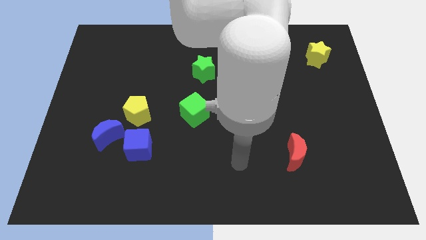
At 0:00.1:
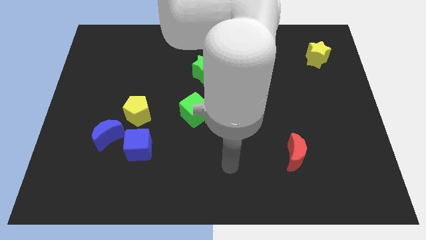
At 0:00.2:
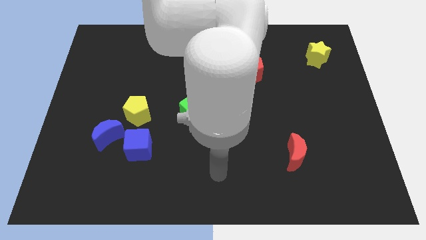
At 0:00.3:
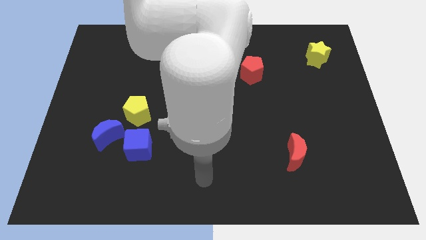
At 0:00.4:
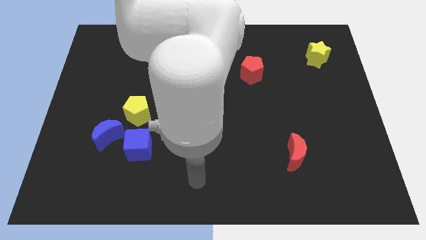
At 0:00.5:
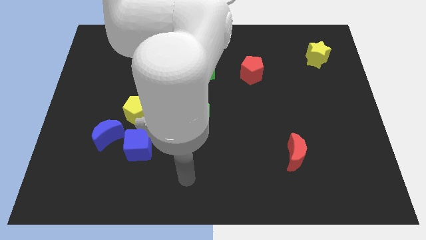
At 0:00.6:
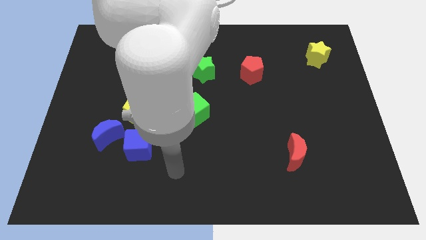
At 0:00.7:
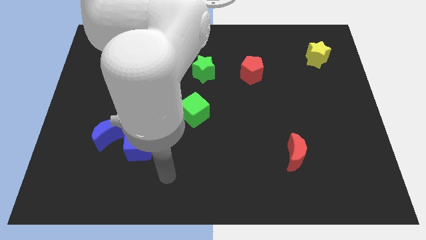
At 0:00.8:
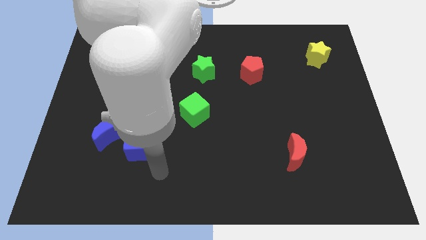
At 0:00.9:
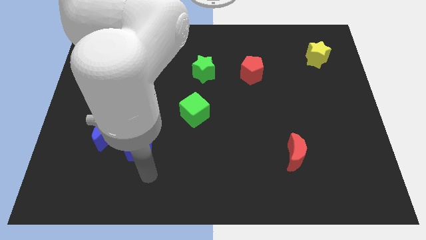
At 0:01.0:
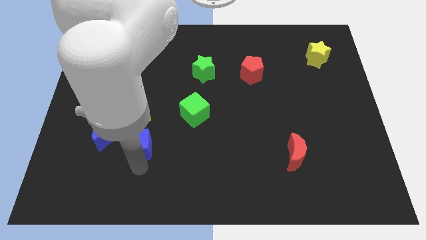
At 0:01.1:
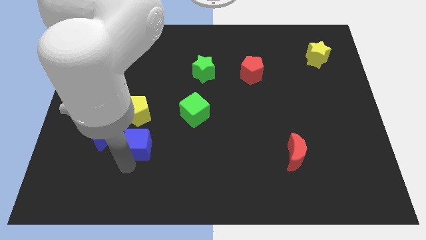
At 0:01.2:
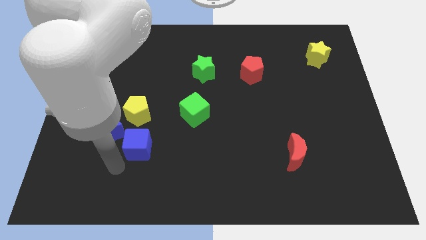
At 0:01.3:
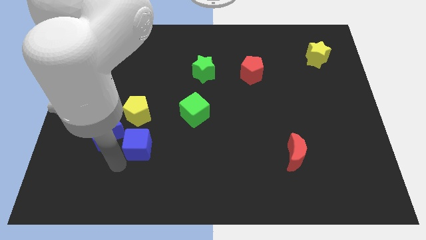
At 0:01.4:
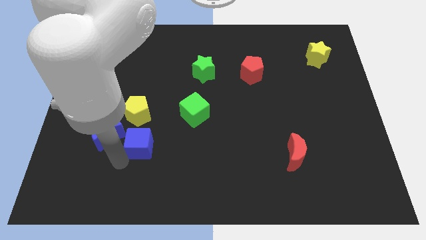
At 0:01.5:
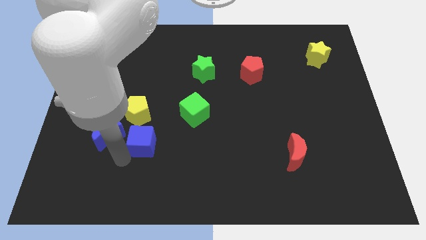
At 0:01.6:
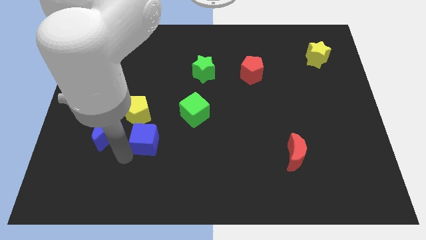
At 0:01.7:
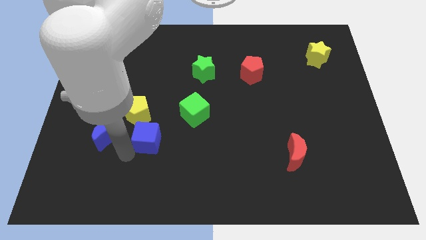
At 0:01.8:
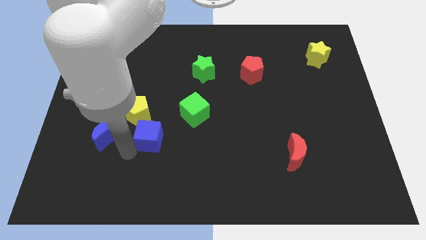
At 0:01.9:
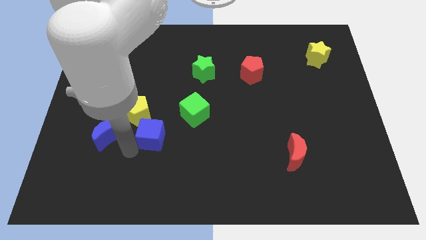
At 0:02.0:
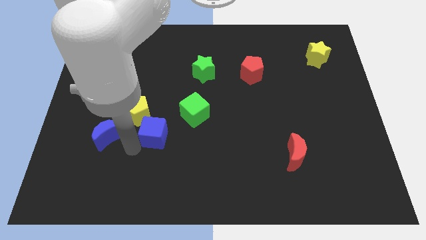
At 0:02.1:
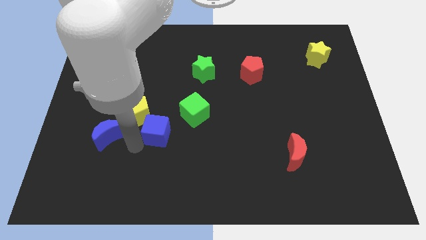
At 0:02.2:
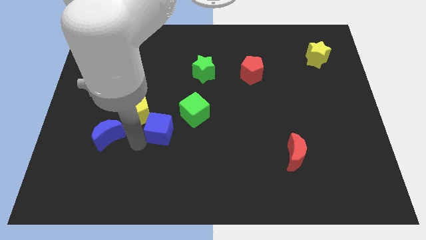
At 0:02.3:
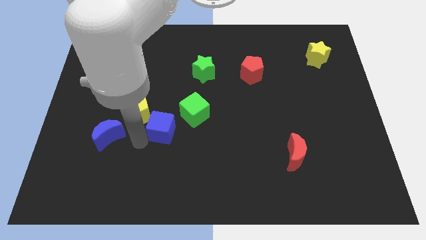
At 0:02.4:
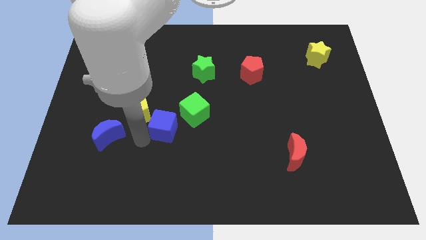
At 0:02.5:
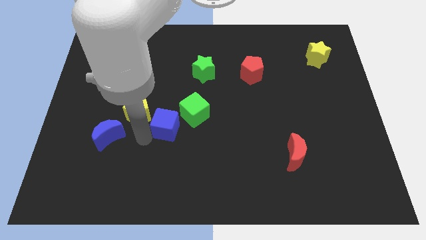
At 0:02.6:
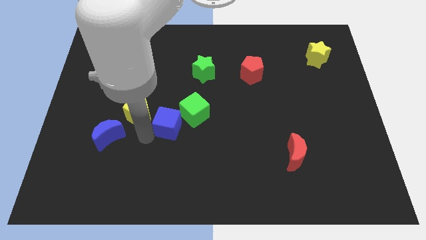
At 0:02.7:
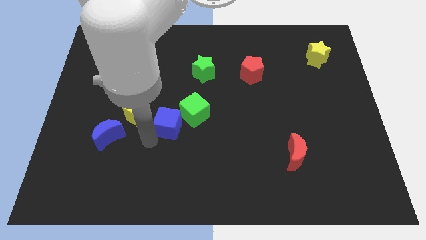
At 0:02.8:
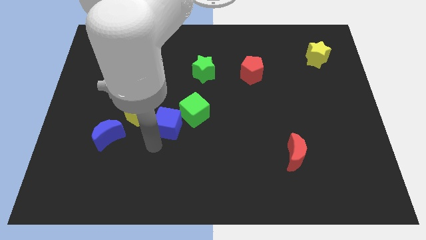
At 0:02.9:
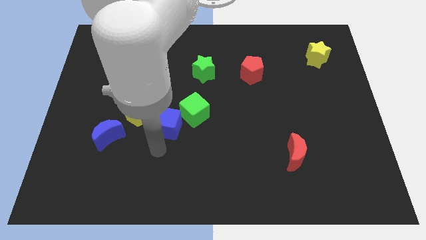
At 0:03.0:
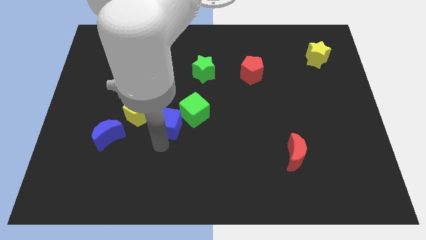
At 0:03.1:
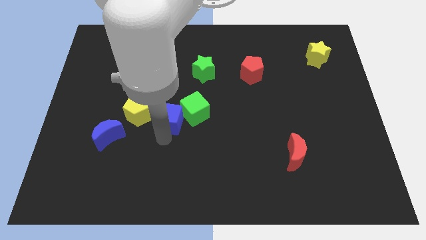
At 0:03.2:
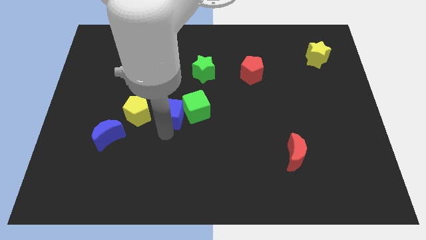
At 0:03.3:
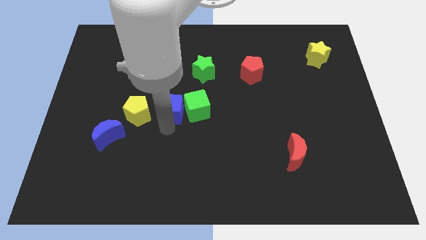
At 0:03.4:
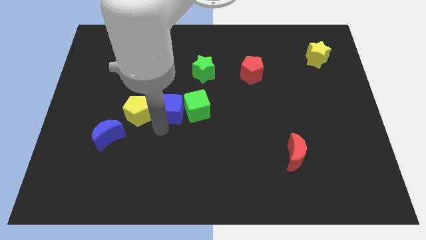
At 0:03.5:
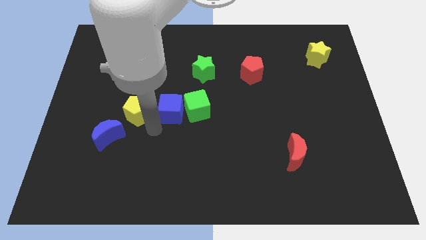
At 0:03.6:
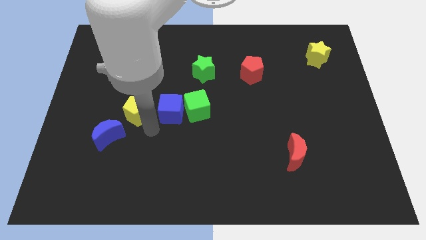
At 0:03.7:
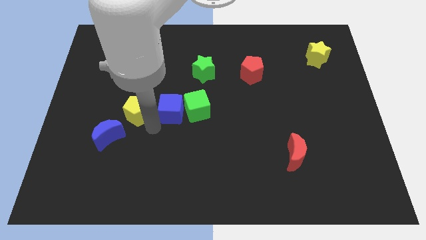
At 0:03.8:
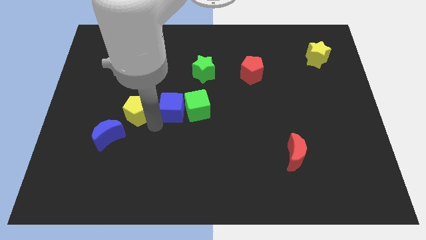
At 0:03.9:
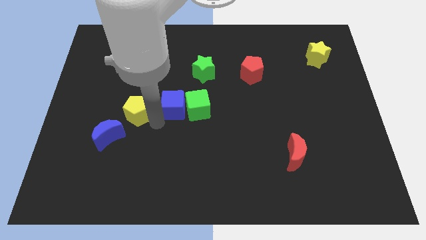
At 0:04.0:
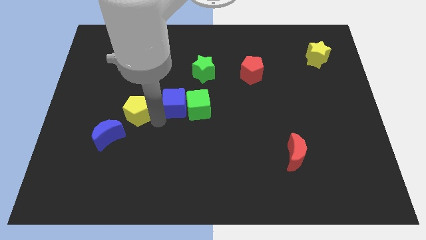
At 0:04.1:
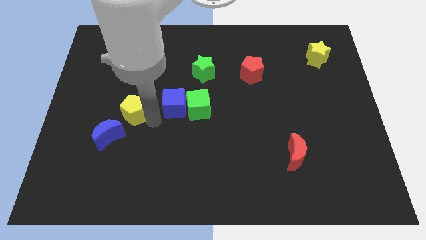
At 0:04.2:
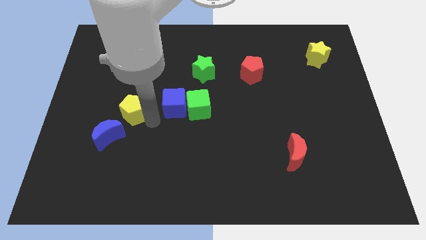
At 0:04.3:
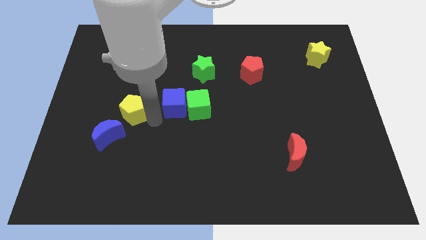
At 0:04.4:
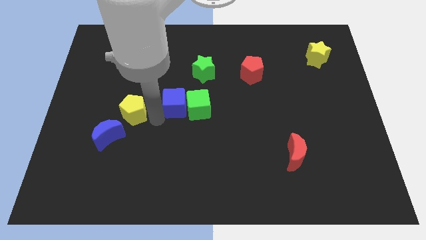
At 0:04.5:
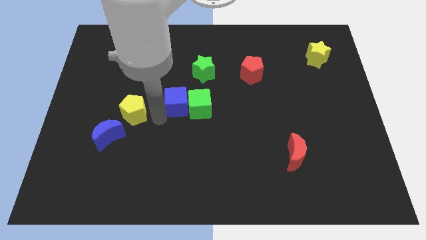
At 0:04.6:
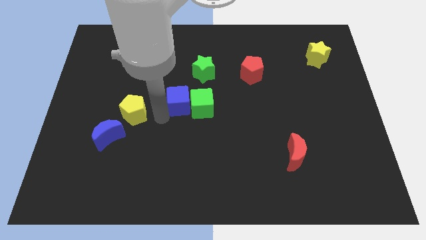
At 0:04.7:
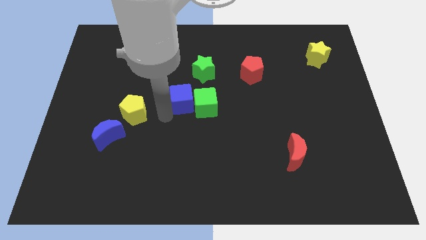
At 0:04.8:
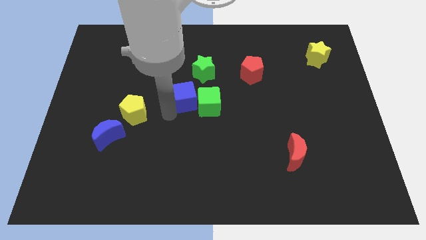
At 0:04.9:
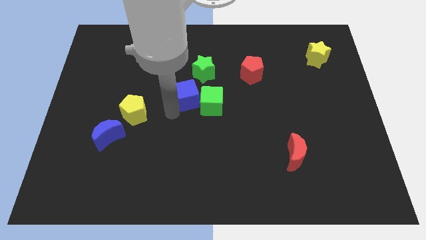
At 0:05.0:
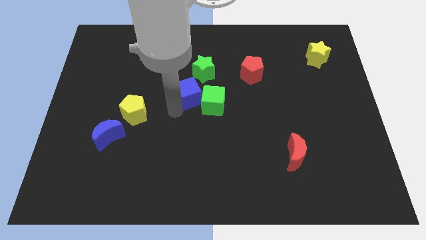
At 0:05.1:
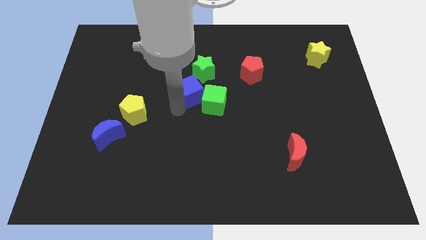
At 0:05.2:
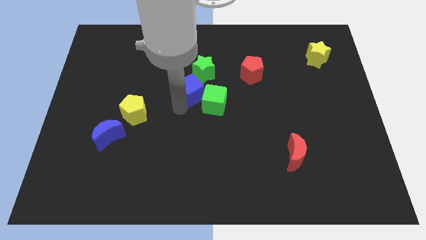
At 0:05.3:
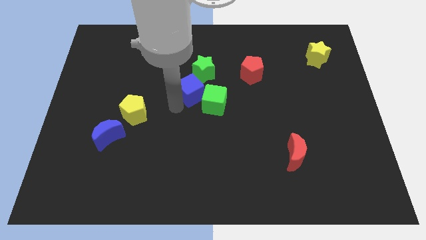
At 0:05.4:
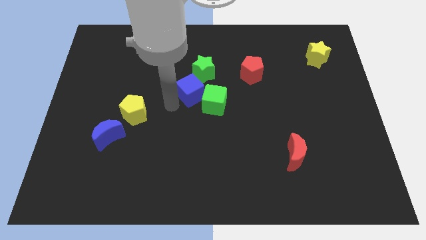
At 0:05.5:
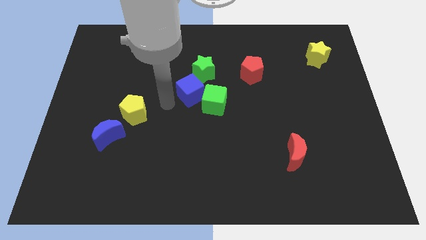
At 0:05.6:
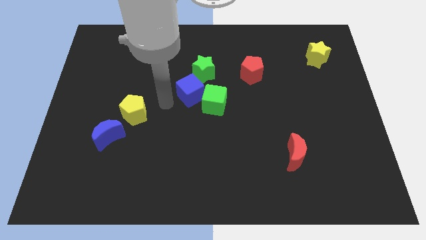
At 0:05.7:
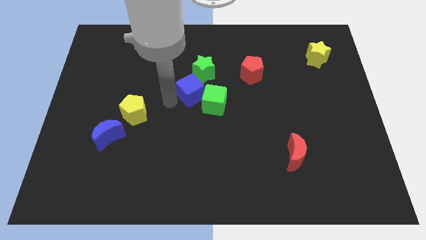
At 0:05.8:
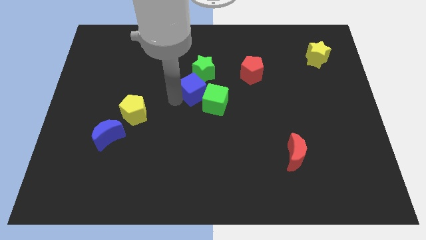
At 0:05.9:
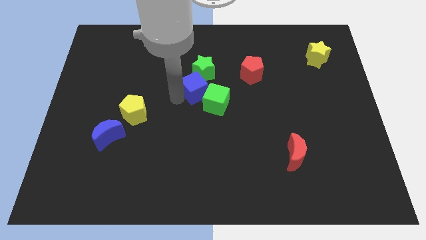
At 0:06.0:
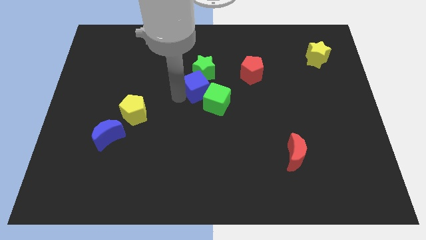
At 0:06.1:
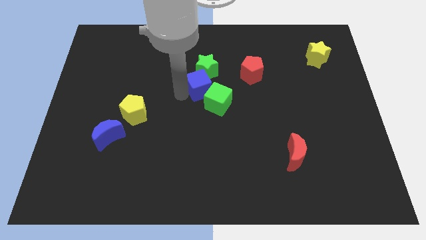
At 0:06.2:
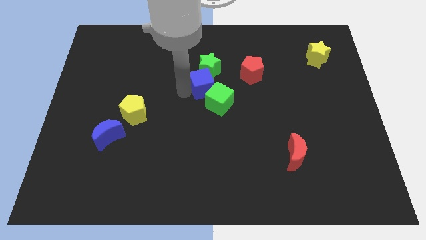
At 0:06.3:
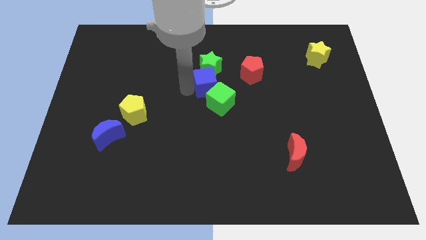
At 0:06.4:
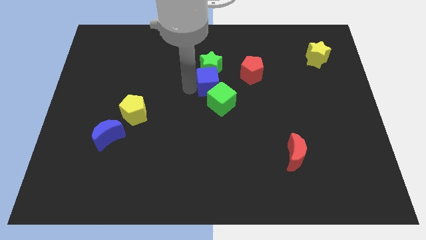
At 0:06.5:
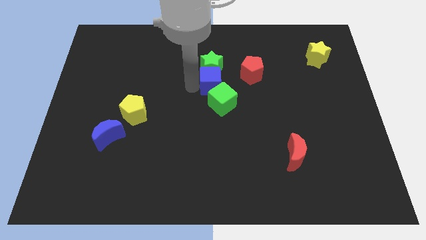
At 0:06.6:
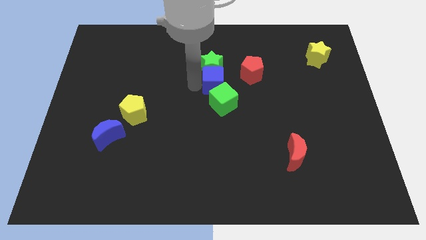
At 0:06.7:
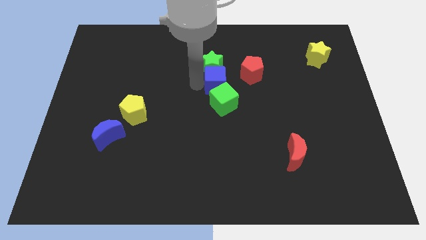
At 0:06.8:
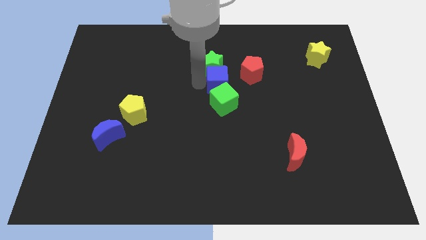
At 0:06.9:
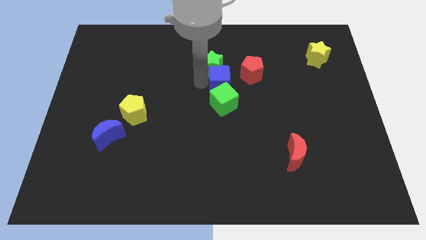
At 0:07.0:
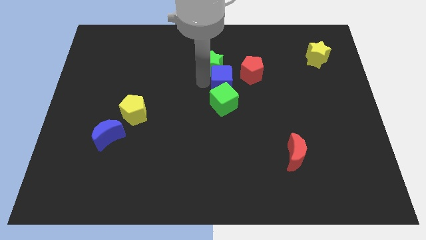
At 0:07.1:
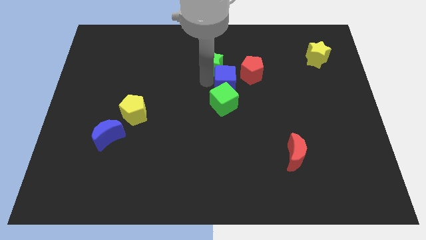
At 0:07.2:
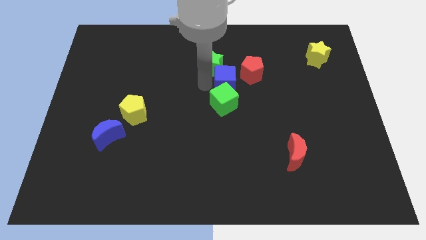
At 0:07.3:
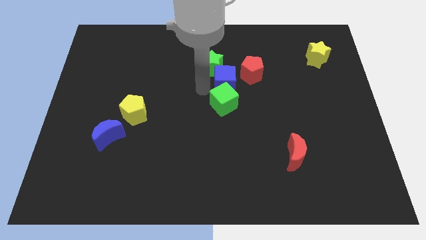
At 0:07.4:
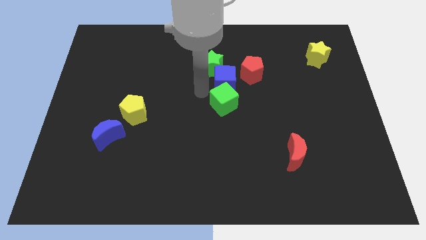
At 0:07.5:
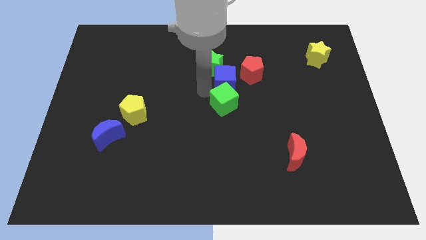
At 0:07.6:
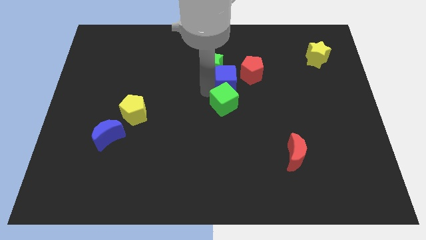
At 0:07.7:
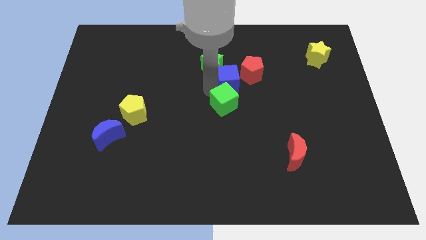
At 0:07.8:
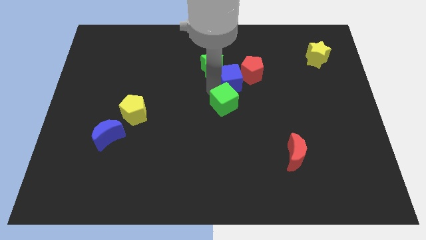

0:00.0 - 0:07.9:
push the blue cube close to the red pentagon

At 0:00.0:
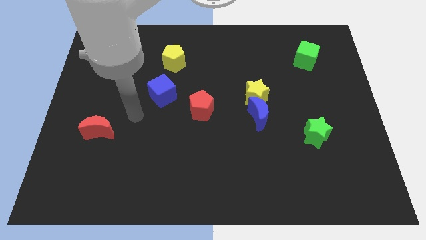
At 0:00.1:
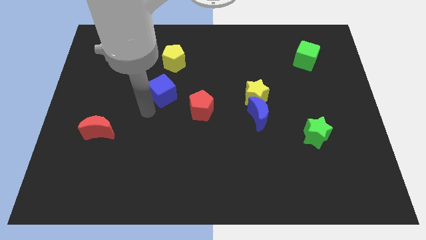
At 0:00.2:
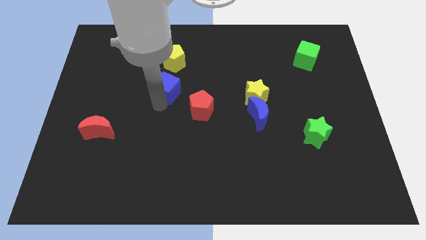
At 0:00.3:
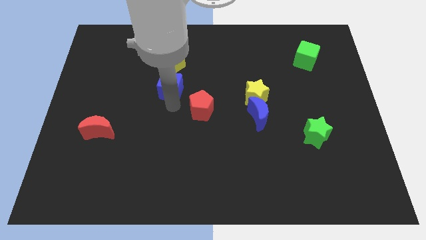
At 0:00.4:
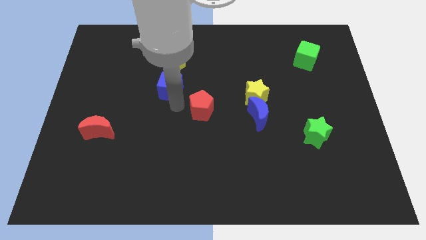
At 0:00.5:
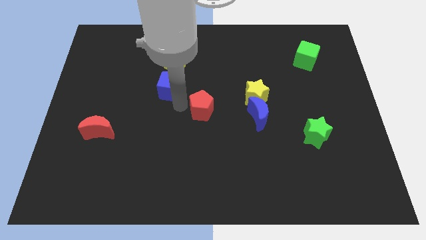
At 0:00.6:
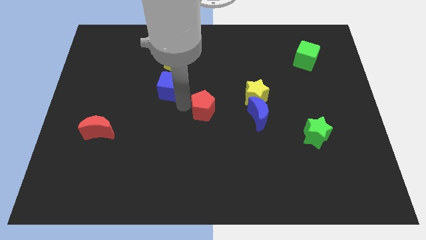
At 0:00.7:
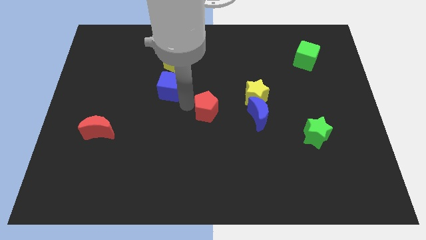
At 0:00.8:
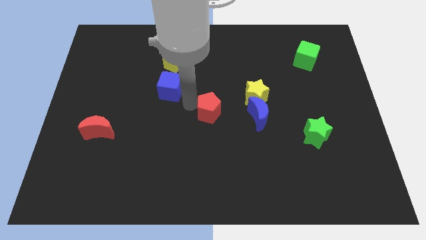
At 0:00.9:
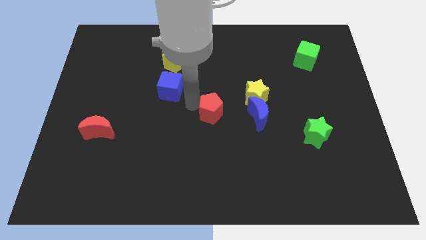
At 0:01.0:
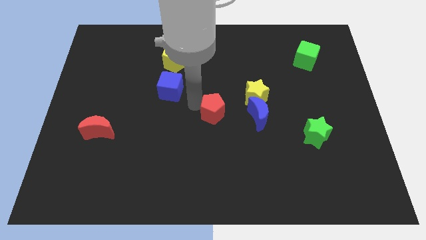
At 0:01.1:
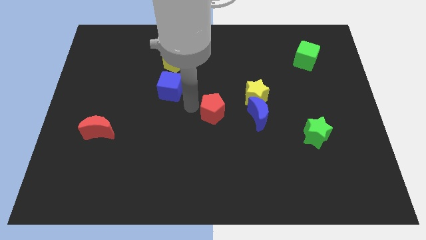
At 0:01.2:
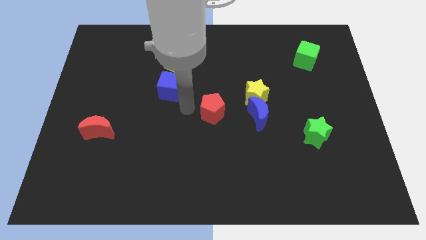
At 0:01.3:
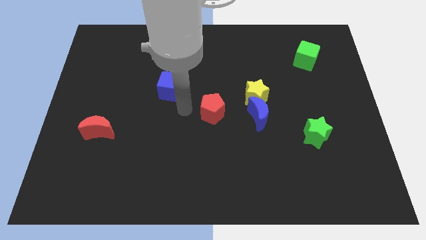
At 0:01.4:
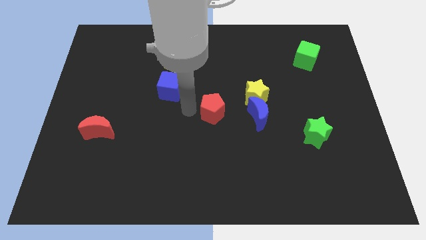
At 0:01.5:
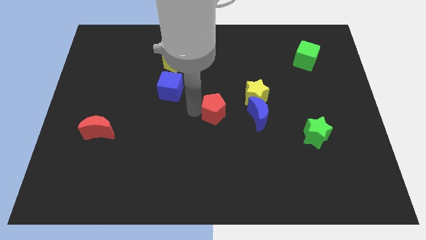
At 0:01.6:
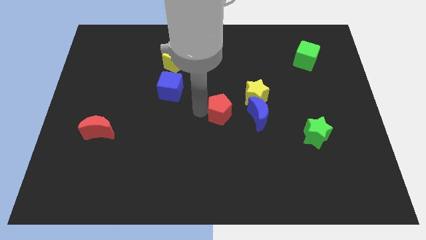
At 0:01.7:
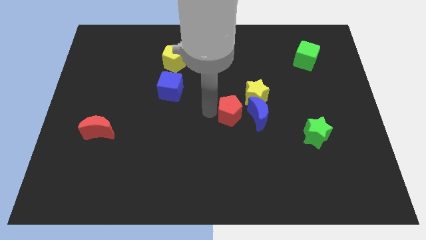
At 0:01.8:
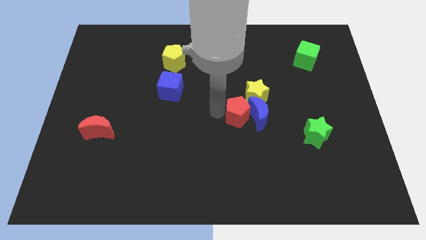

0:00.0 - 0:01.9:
put the red pentagon towards the blue moon
